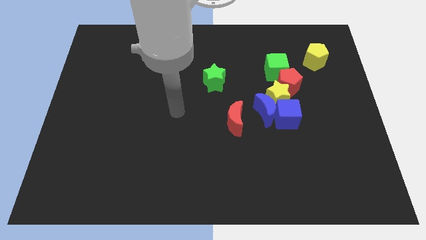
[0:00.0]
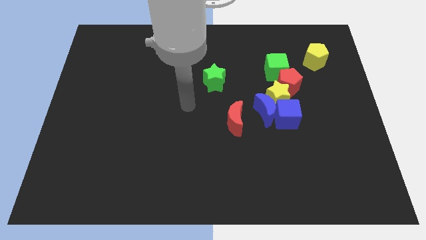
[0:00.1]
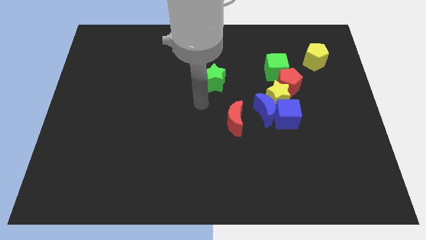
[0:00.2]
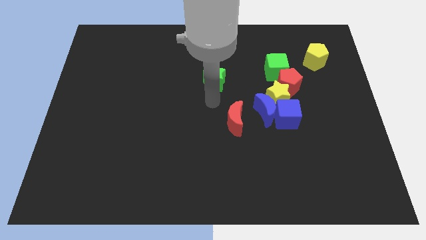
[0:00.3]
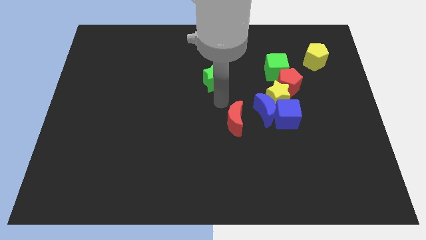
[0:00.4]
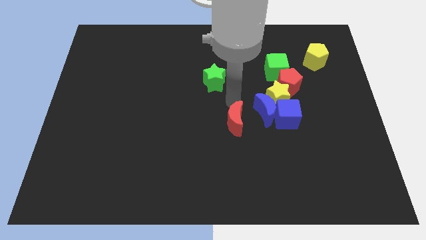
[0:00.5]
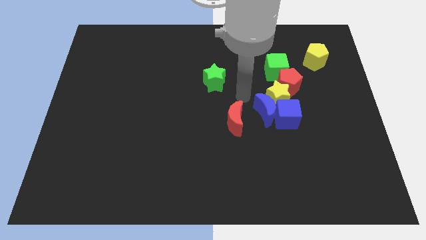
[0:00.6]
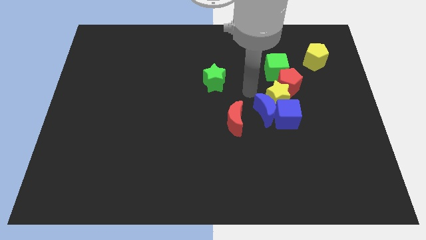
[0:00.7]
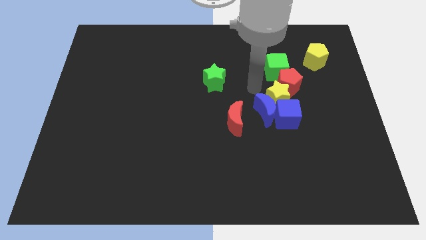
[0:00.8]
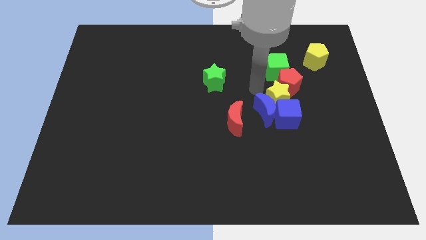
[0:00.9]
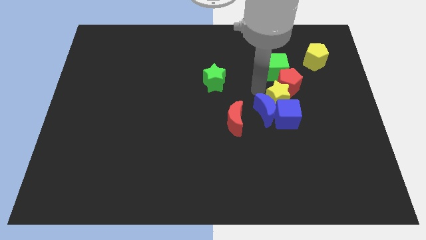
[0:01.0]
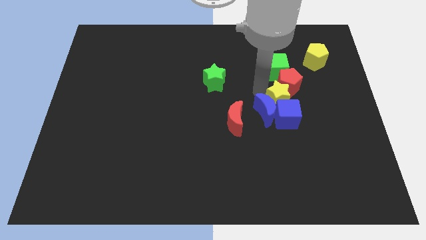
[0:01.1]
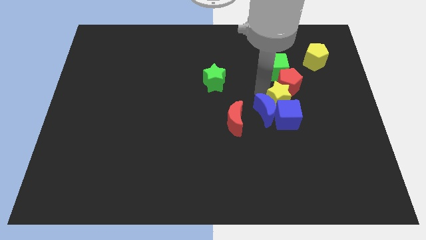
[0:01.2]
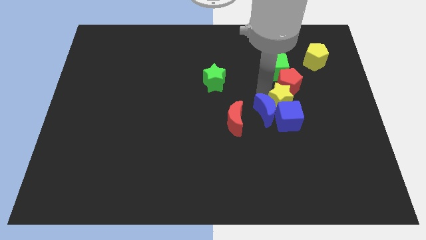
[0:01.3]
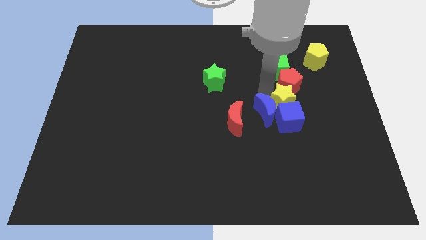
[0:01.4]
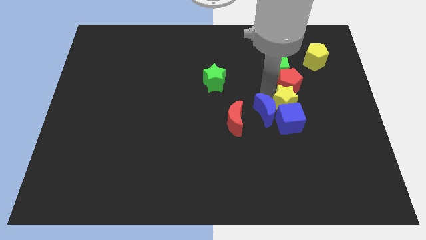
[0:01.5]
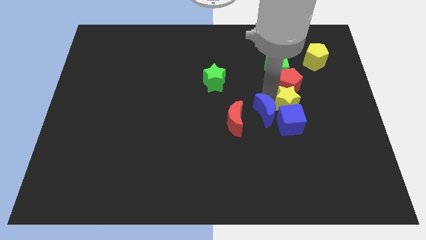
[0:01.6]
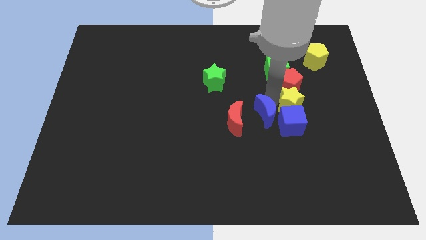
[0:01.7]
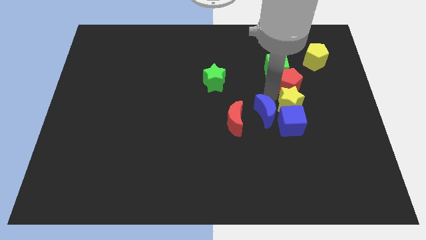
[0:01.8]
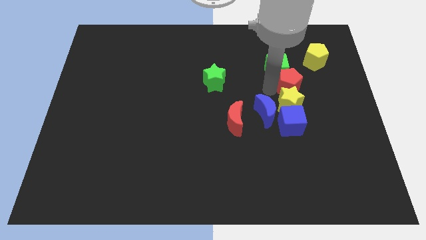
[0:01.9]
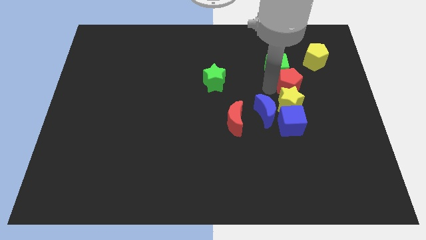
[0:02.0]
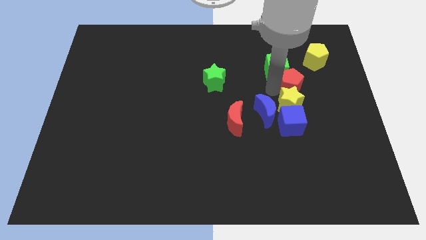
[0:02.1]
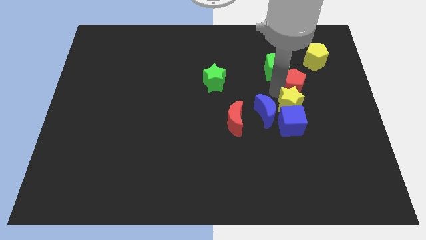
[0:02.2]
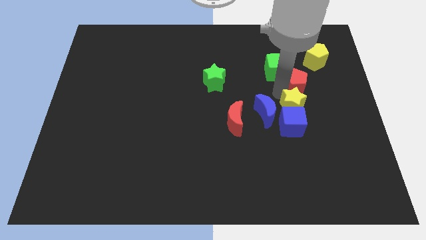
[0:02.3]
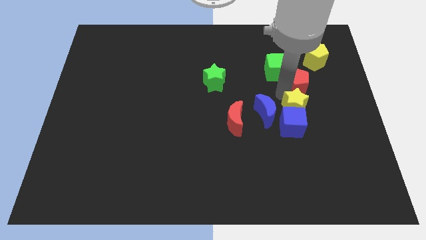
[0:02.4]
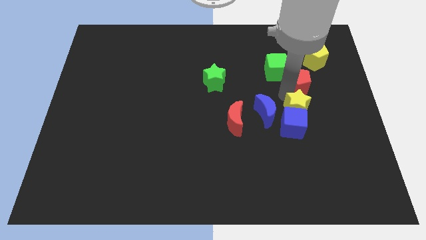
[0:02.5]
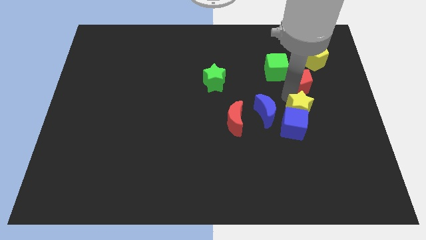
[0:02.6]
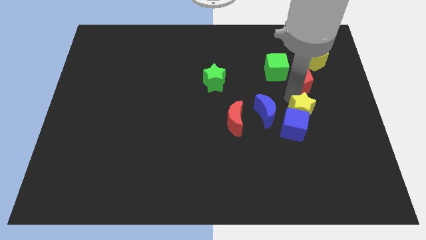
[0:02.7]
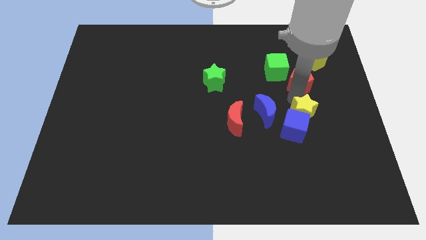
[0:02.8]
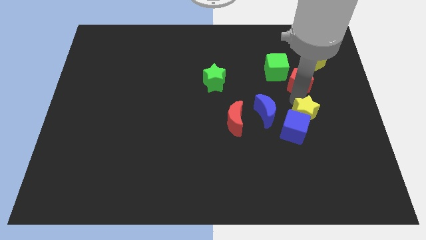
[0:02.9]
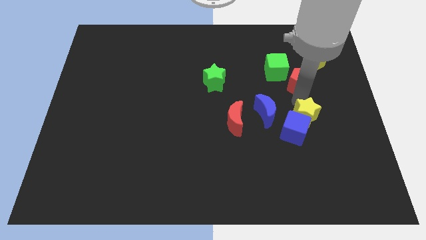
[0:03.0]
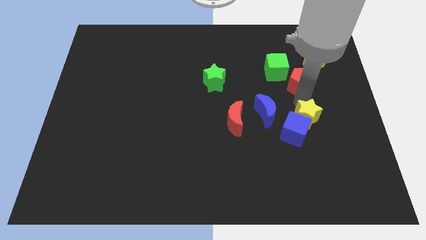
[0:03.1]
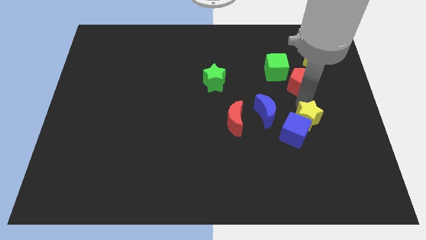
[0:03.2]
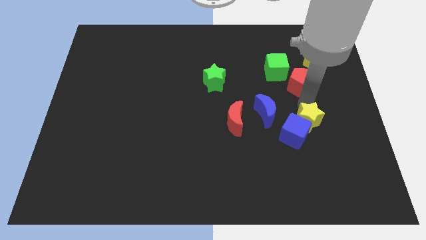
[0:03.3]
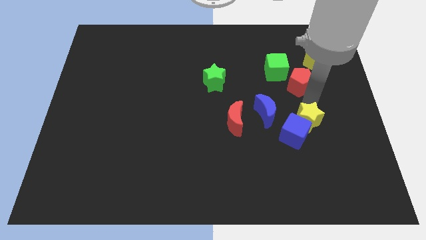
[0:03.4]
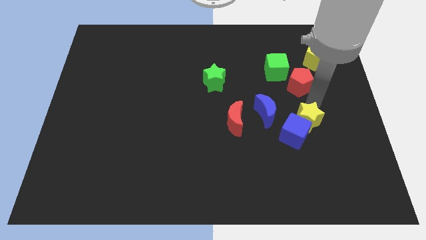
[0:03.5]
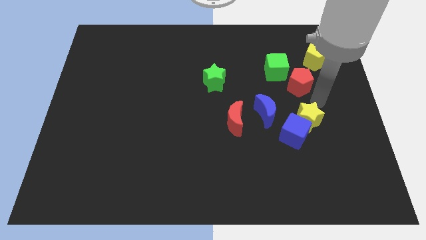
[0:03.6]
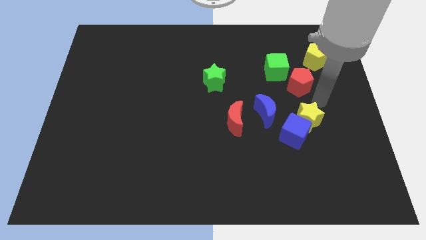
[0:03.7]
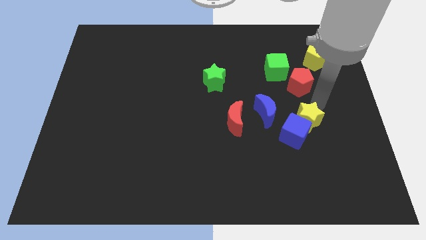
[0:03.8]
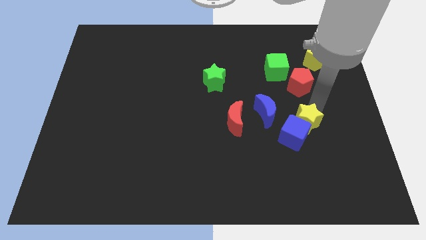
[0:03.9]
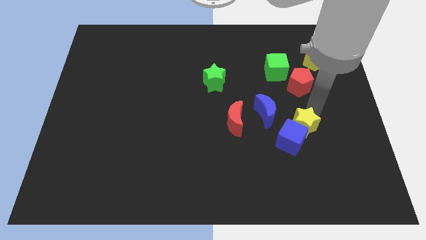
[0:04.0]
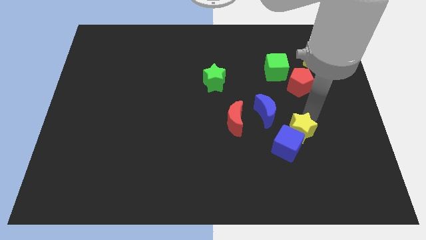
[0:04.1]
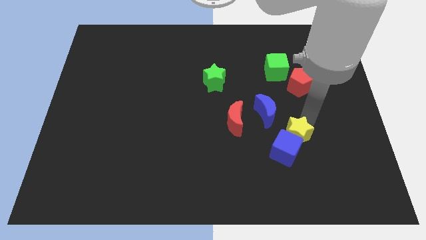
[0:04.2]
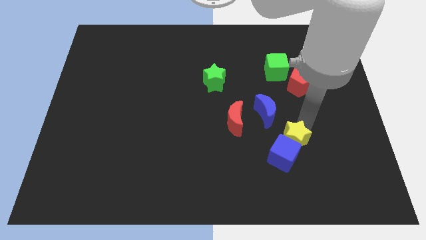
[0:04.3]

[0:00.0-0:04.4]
separate the yellow star from the group of blocks

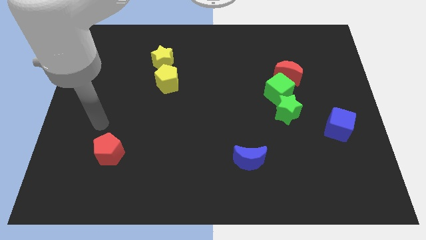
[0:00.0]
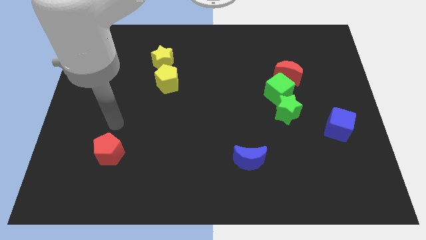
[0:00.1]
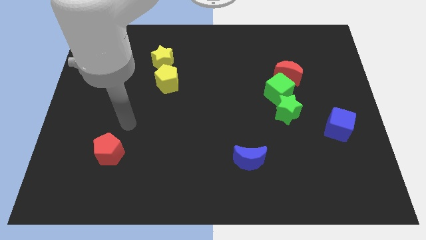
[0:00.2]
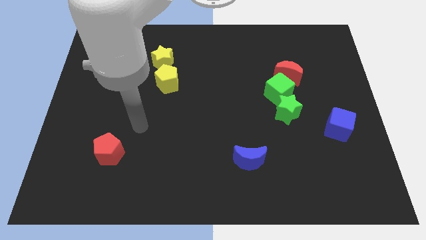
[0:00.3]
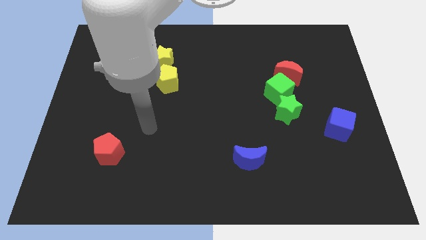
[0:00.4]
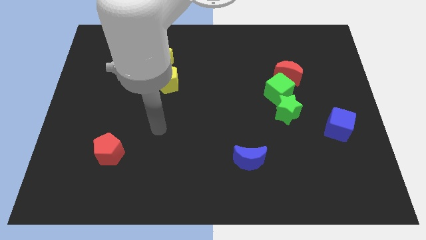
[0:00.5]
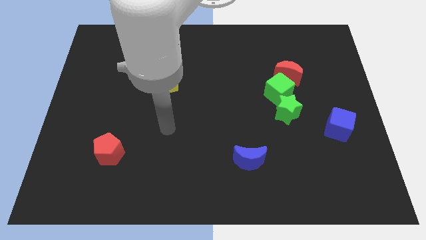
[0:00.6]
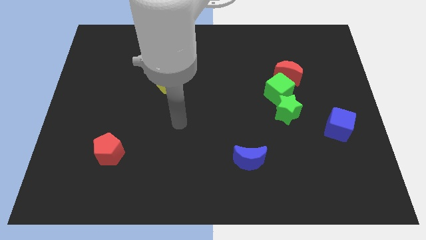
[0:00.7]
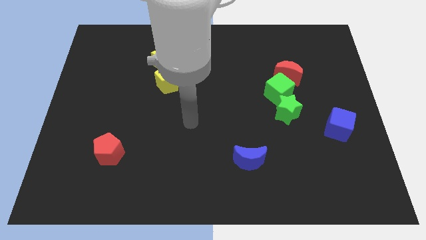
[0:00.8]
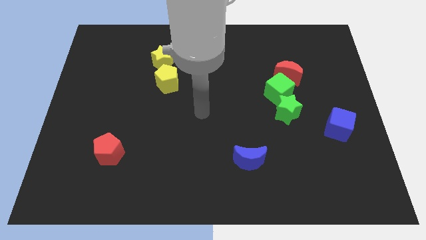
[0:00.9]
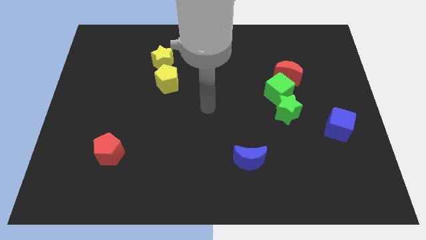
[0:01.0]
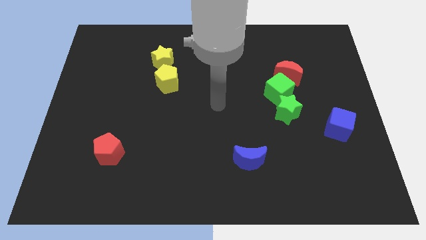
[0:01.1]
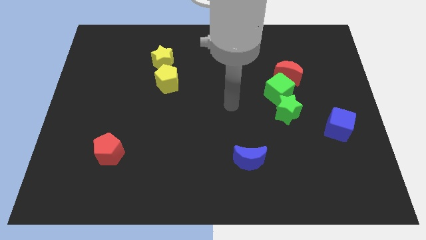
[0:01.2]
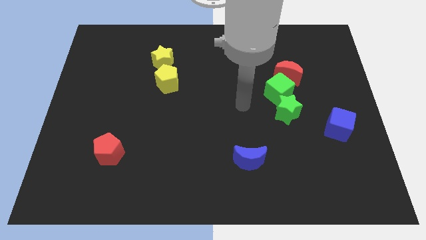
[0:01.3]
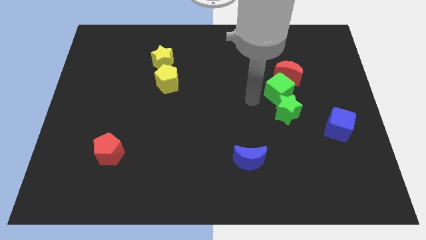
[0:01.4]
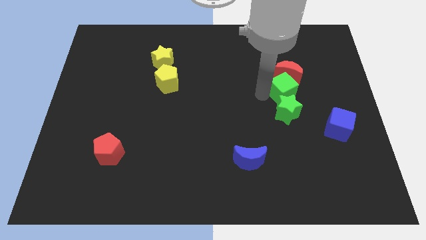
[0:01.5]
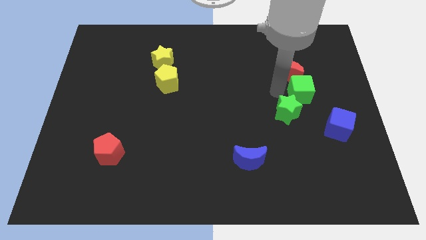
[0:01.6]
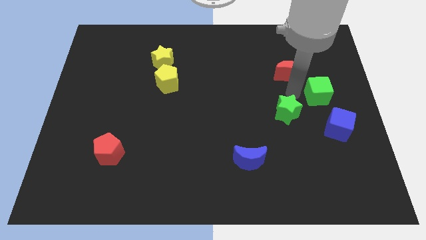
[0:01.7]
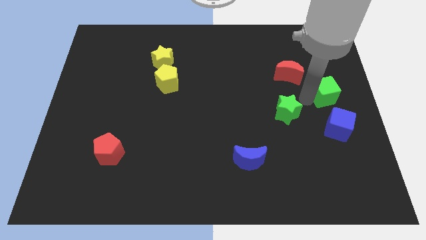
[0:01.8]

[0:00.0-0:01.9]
move the green star away from the green cube

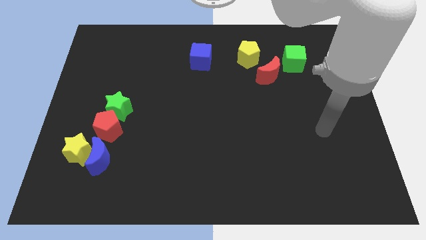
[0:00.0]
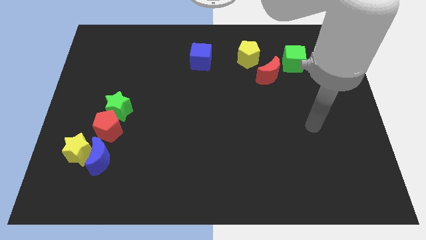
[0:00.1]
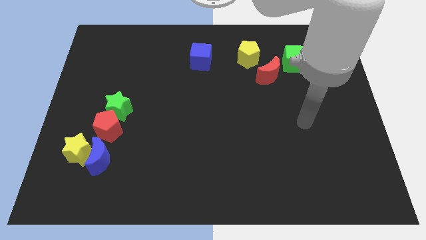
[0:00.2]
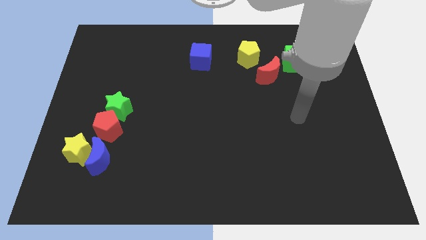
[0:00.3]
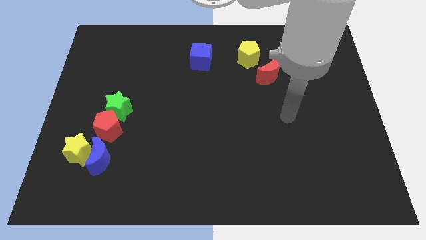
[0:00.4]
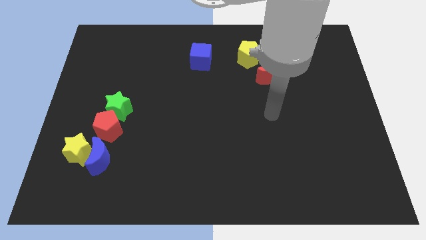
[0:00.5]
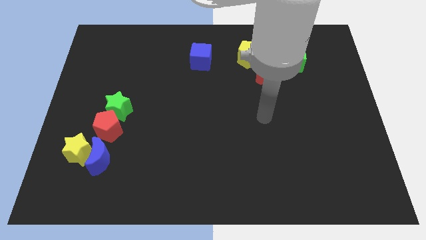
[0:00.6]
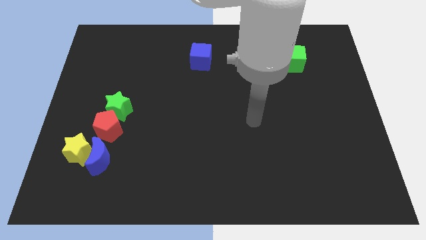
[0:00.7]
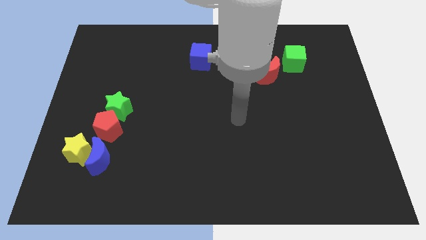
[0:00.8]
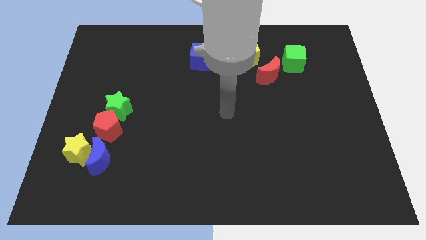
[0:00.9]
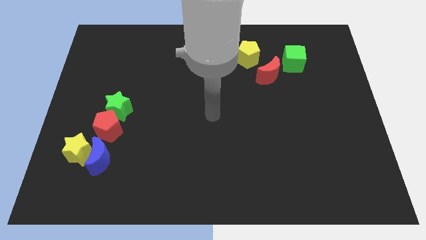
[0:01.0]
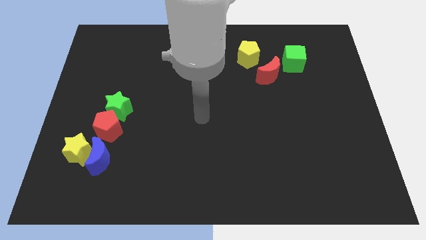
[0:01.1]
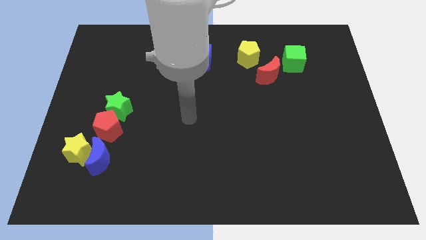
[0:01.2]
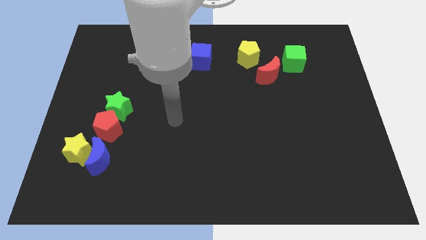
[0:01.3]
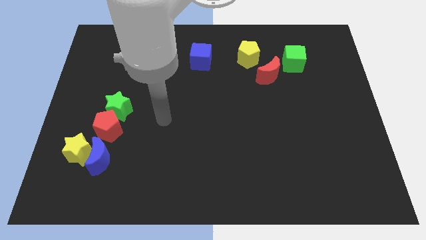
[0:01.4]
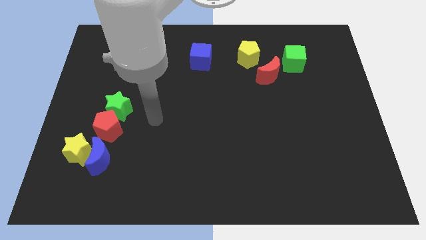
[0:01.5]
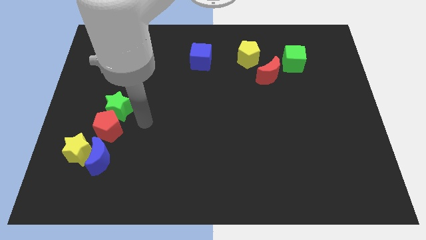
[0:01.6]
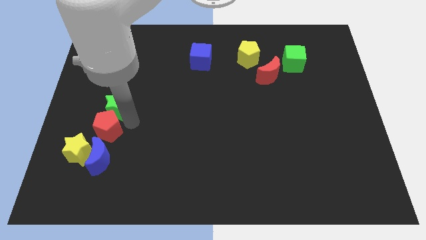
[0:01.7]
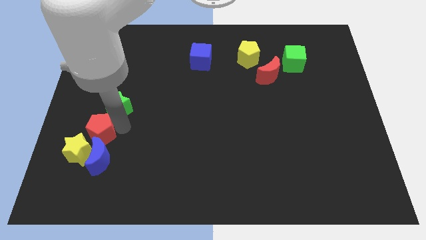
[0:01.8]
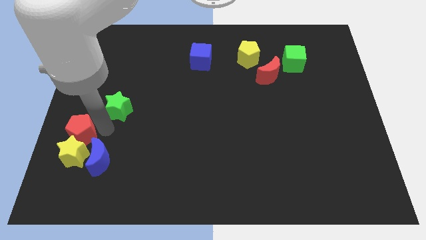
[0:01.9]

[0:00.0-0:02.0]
move the green star away from the red pentagon

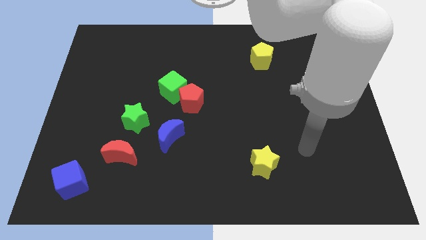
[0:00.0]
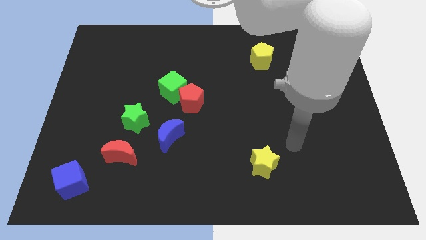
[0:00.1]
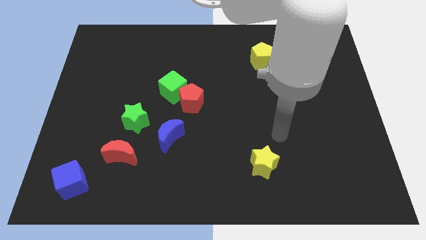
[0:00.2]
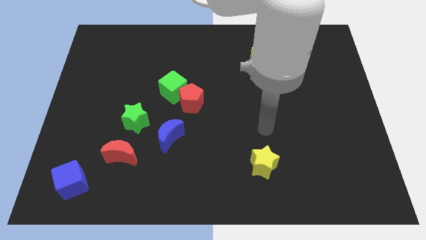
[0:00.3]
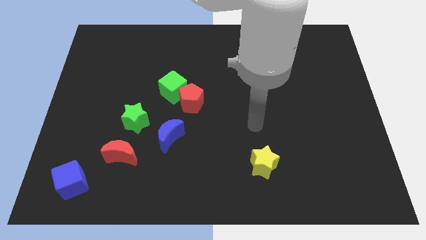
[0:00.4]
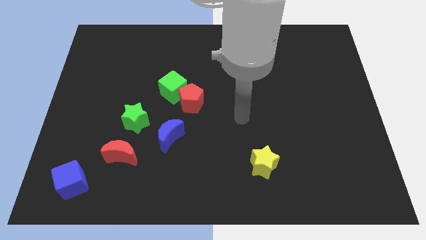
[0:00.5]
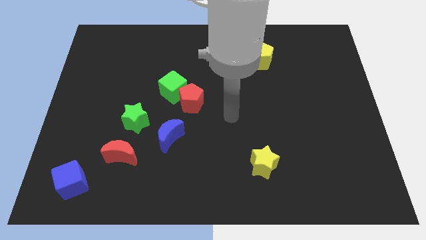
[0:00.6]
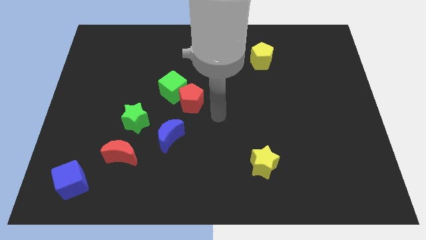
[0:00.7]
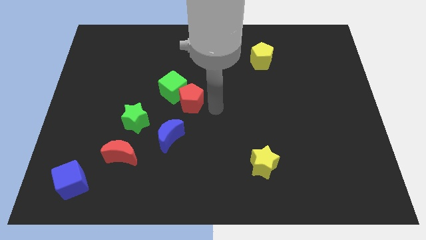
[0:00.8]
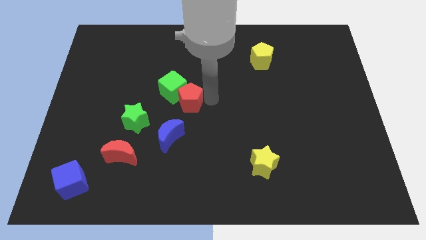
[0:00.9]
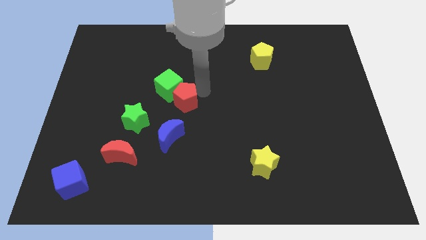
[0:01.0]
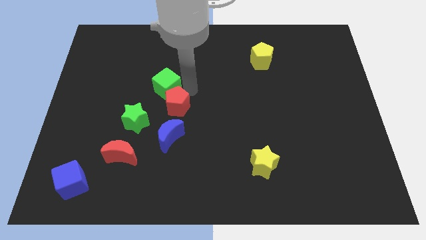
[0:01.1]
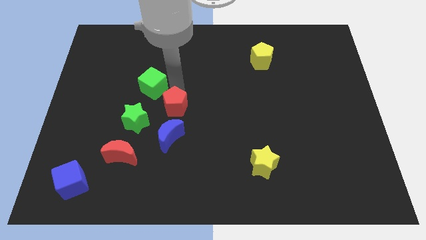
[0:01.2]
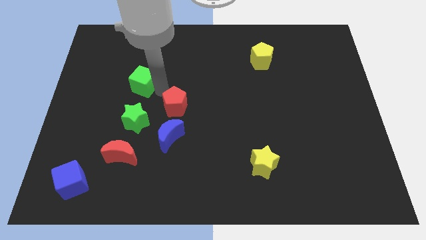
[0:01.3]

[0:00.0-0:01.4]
separate the red pentagon from the green cube
